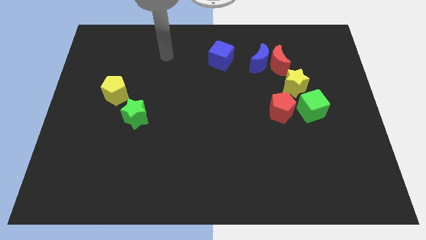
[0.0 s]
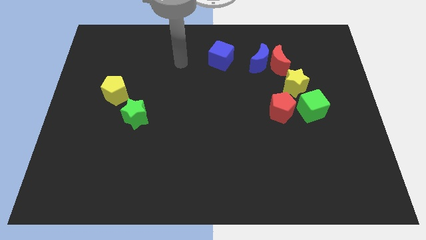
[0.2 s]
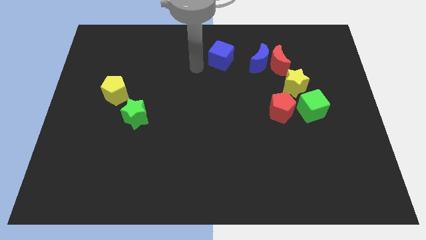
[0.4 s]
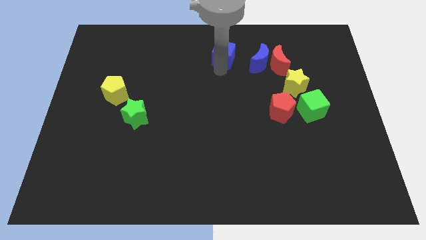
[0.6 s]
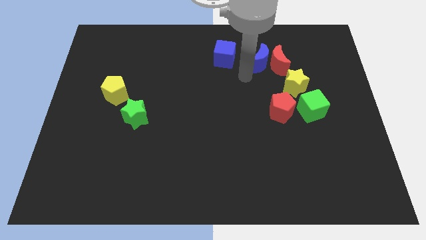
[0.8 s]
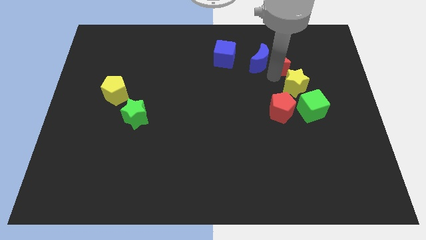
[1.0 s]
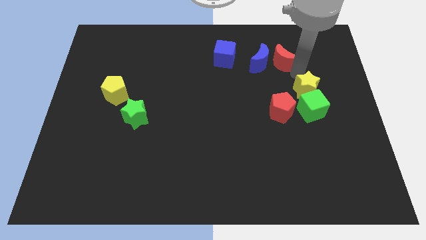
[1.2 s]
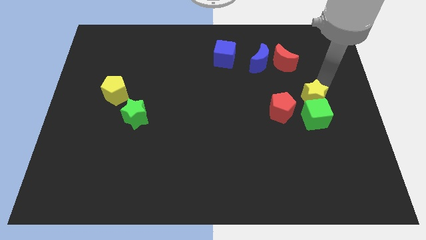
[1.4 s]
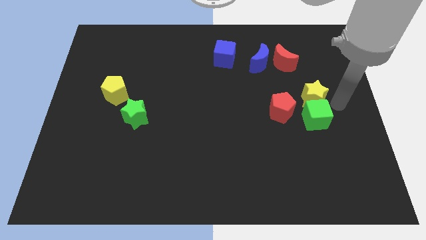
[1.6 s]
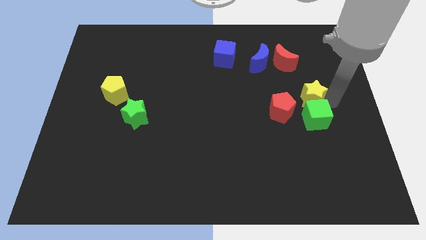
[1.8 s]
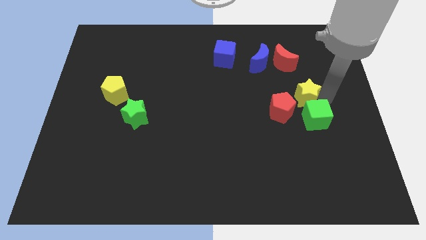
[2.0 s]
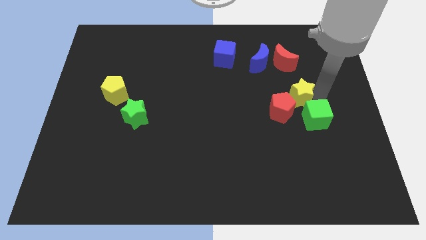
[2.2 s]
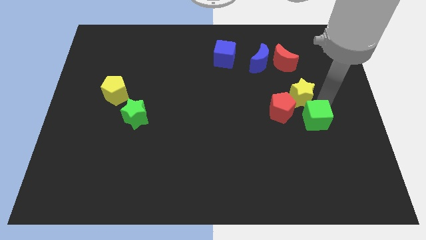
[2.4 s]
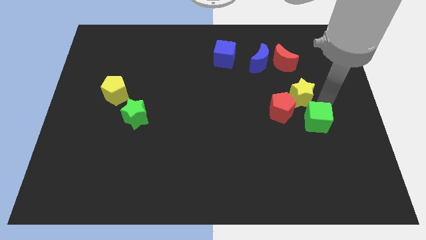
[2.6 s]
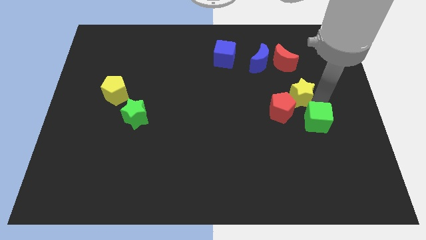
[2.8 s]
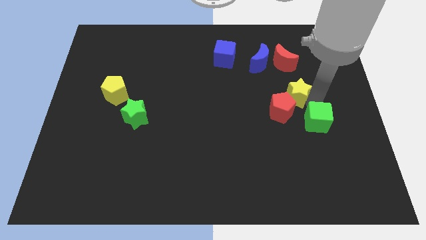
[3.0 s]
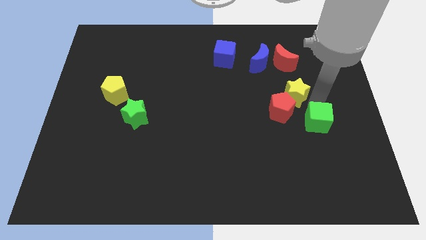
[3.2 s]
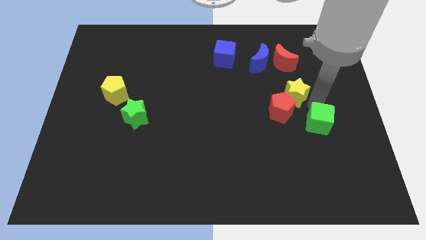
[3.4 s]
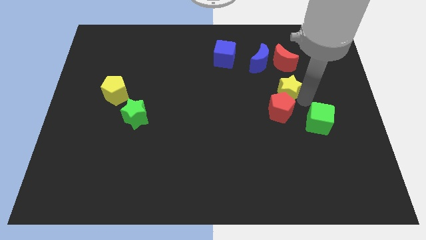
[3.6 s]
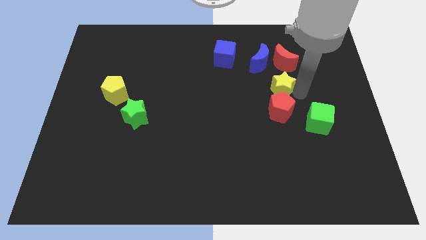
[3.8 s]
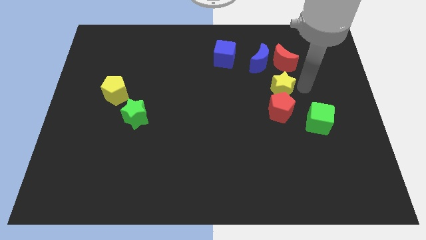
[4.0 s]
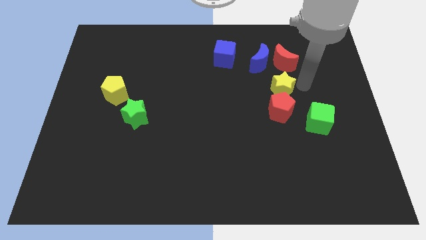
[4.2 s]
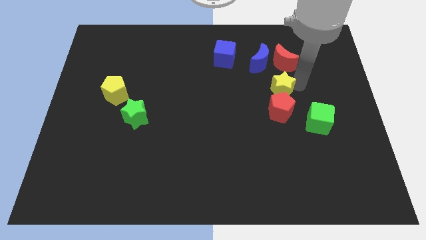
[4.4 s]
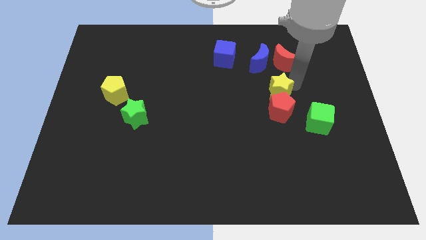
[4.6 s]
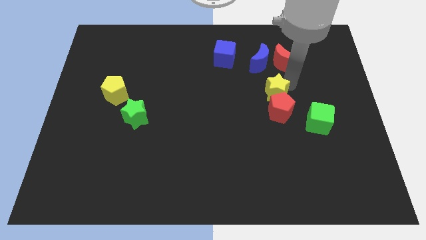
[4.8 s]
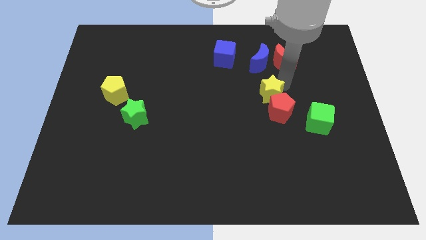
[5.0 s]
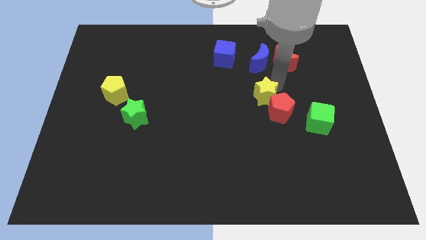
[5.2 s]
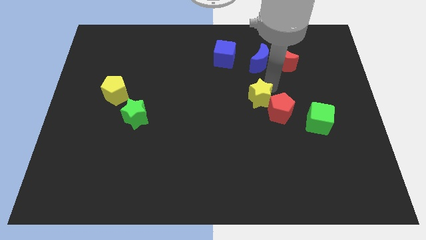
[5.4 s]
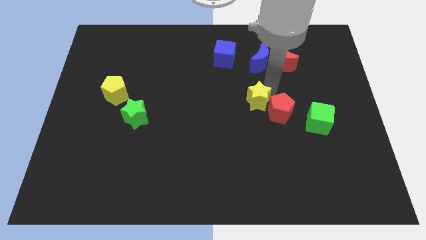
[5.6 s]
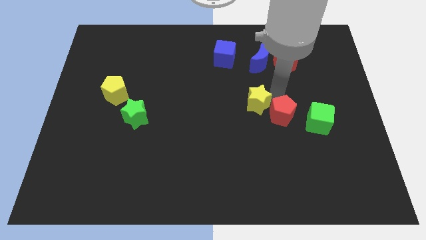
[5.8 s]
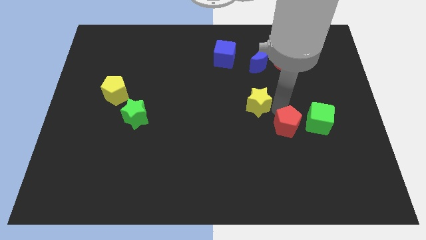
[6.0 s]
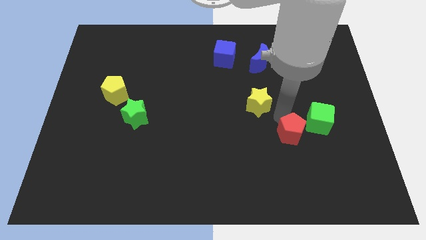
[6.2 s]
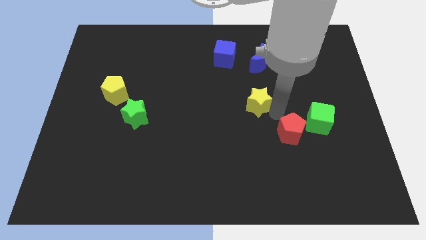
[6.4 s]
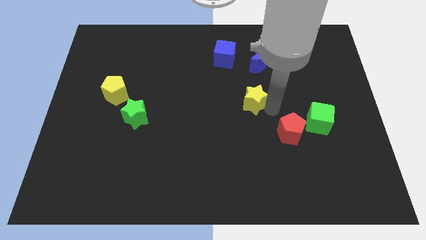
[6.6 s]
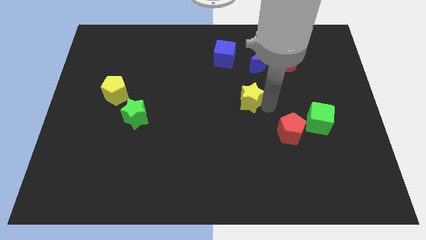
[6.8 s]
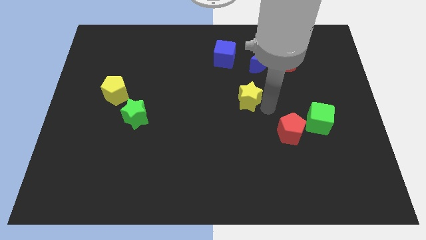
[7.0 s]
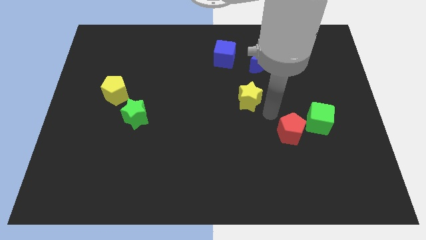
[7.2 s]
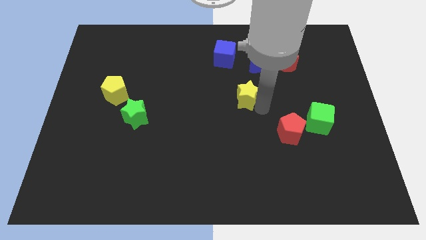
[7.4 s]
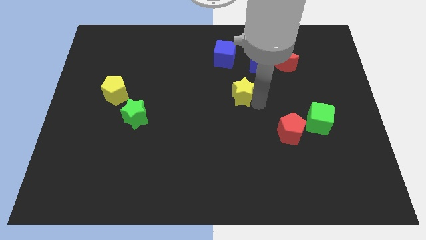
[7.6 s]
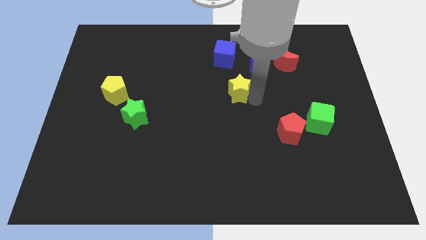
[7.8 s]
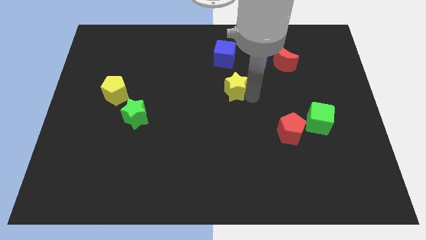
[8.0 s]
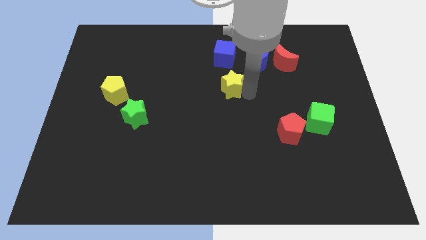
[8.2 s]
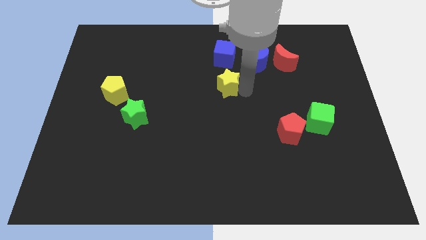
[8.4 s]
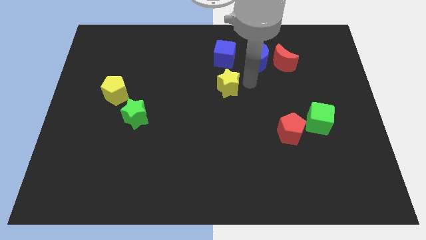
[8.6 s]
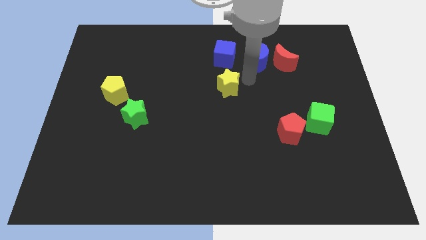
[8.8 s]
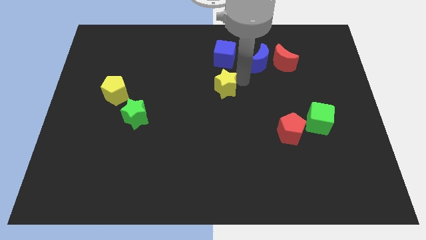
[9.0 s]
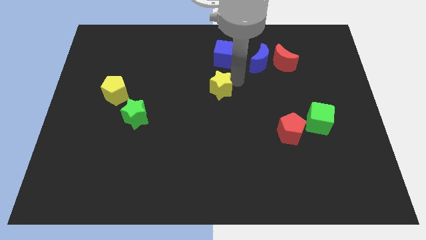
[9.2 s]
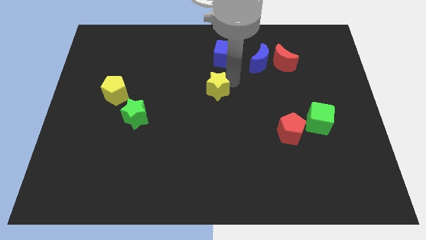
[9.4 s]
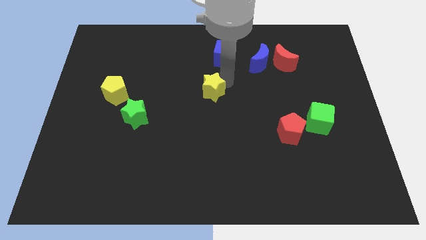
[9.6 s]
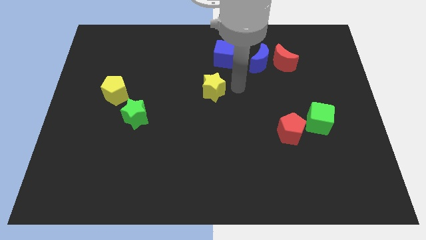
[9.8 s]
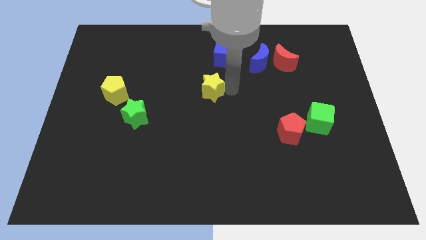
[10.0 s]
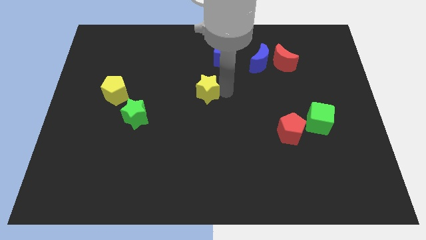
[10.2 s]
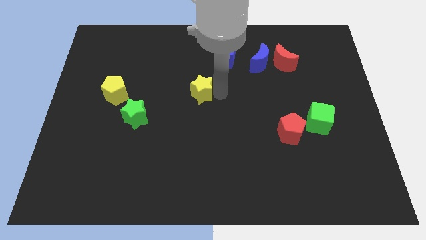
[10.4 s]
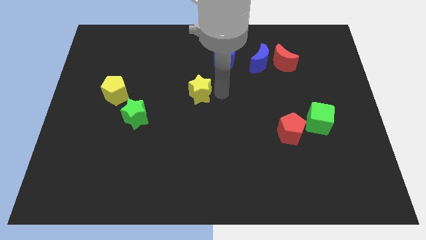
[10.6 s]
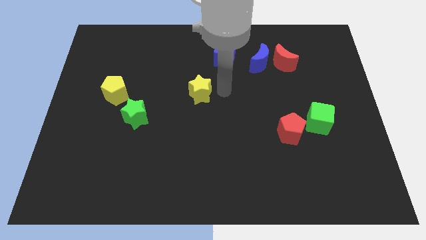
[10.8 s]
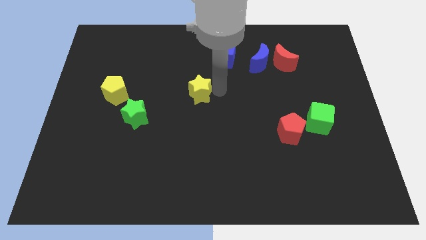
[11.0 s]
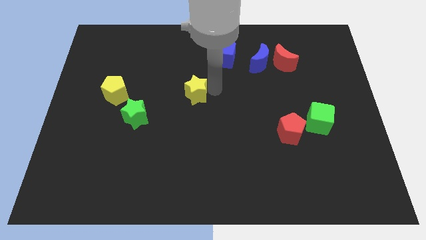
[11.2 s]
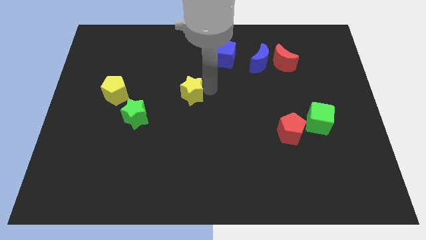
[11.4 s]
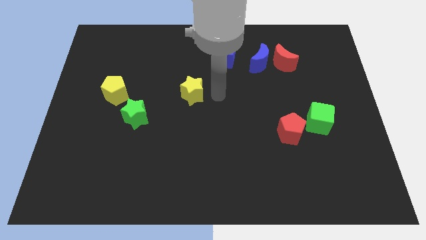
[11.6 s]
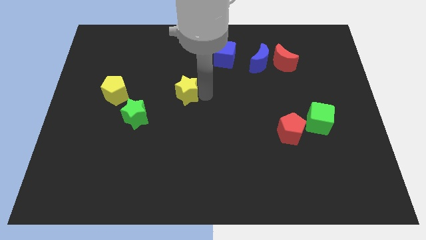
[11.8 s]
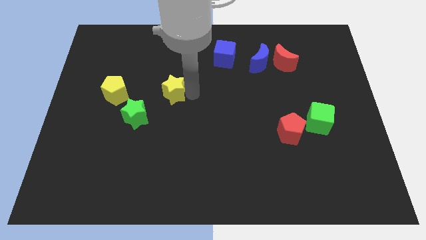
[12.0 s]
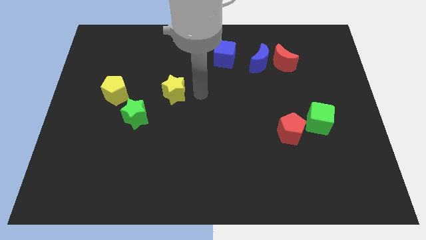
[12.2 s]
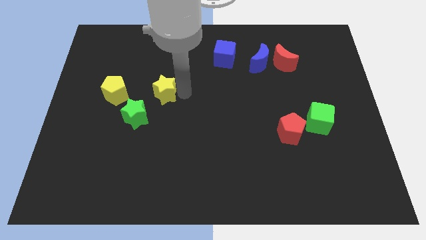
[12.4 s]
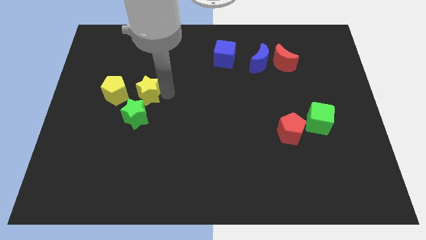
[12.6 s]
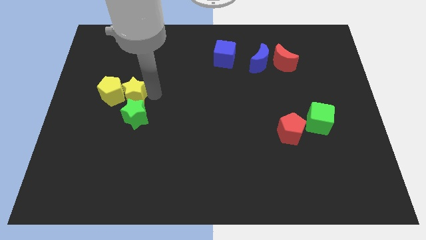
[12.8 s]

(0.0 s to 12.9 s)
push the yellow star towards the yellow pentagon

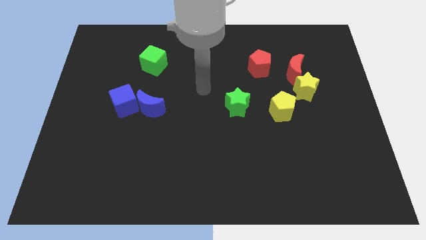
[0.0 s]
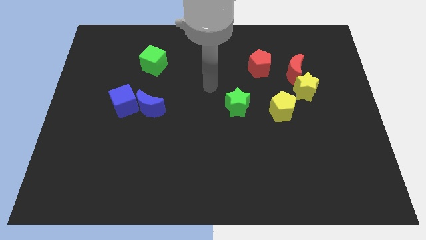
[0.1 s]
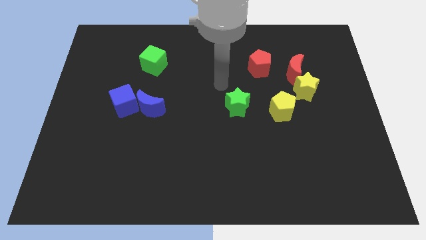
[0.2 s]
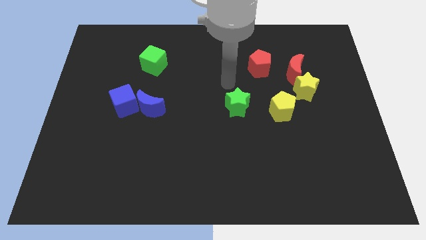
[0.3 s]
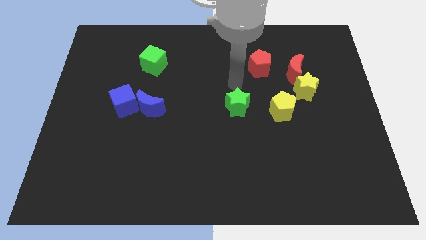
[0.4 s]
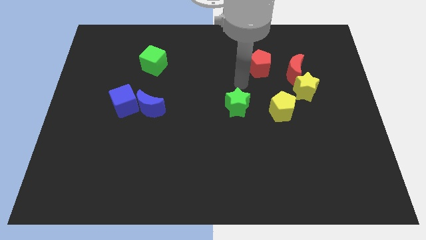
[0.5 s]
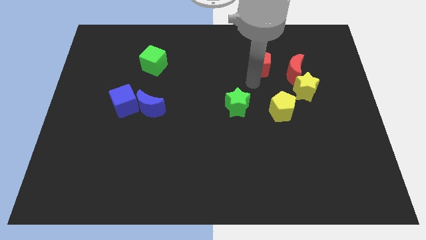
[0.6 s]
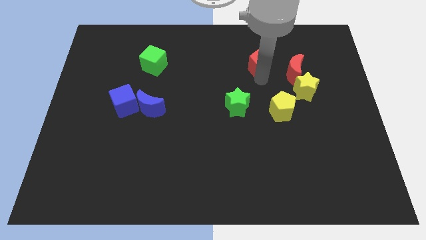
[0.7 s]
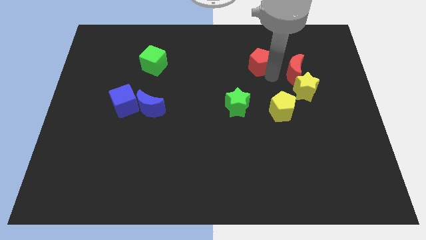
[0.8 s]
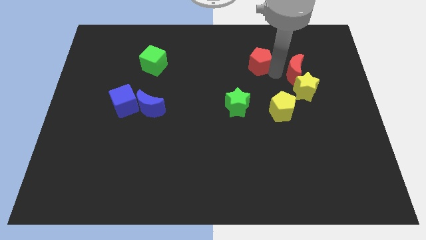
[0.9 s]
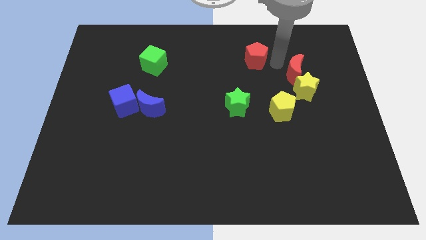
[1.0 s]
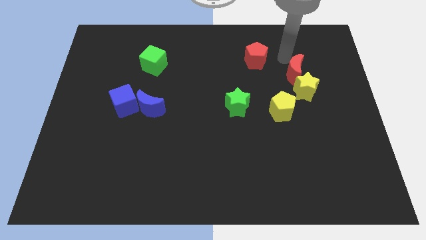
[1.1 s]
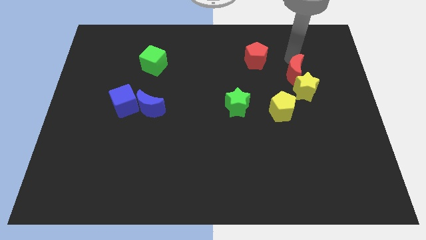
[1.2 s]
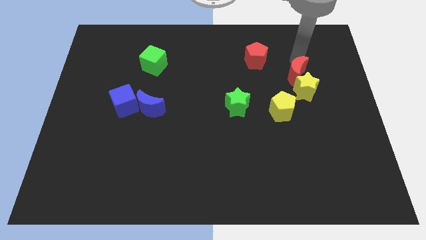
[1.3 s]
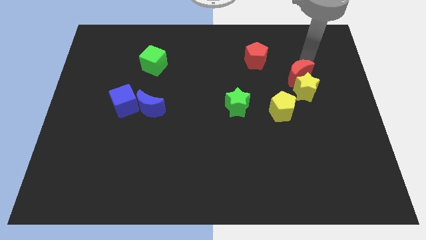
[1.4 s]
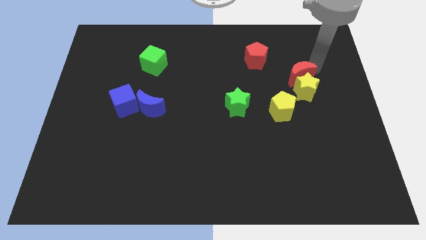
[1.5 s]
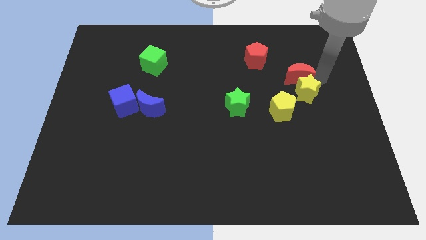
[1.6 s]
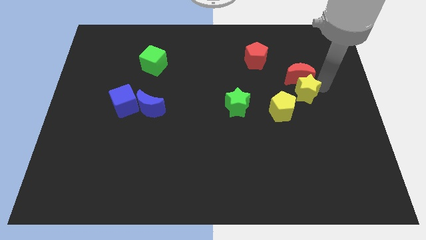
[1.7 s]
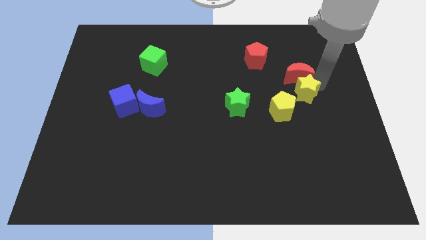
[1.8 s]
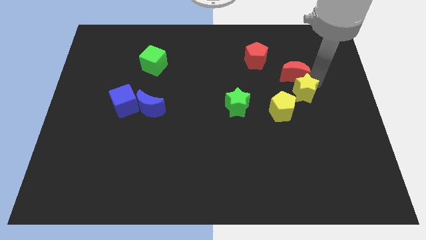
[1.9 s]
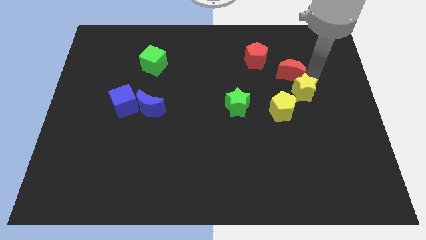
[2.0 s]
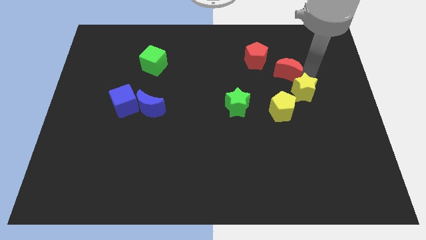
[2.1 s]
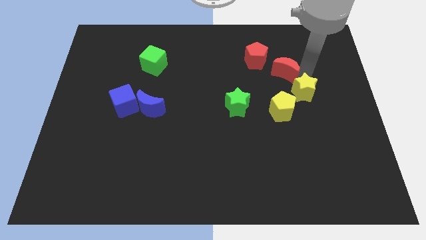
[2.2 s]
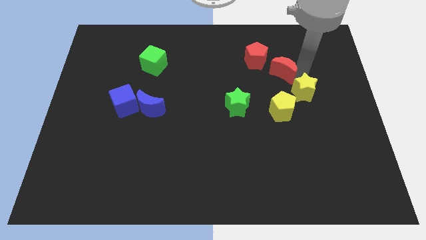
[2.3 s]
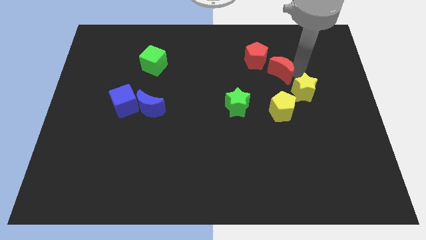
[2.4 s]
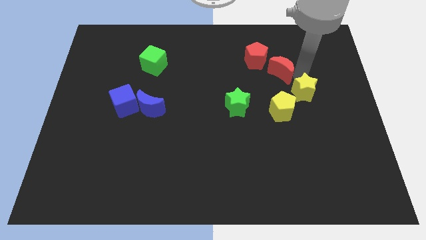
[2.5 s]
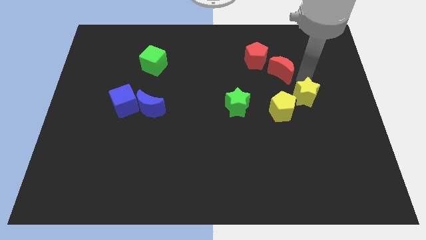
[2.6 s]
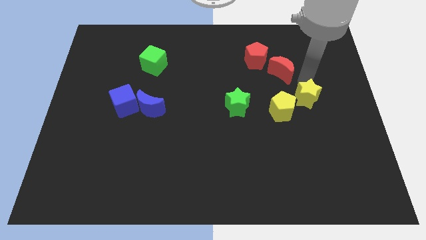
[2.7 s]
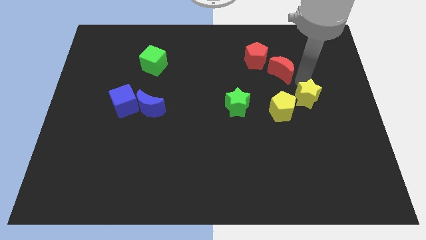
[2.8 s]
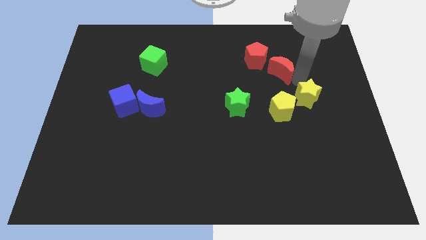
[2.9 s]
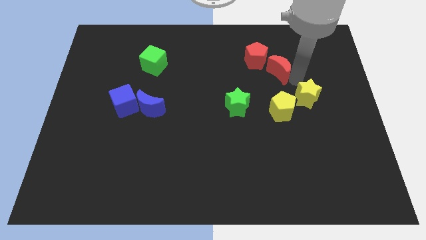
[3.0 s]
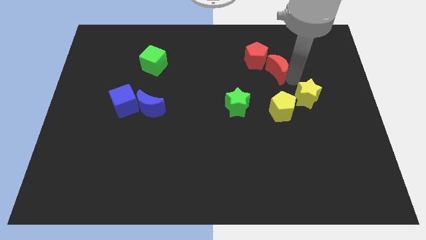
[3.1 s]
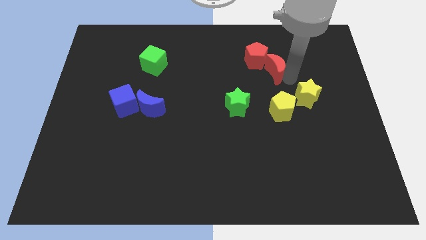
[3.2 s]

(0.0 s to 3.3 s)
move the red moon close to the red pentagon
